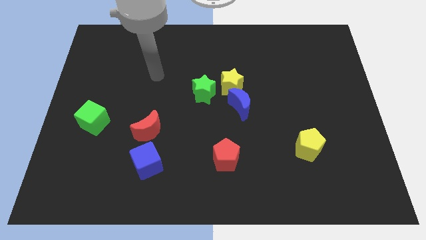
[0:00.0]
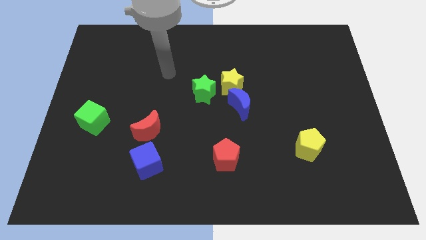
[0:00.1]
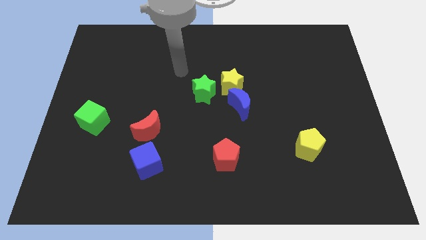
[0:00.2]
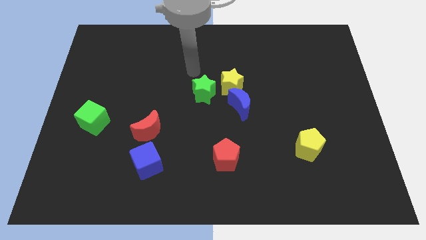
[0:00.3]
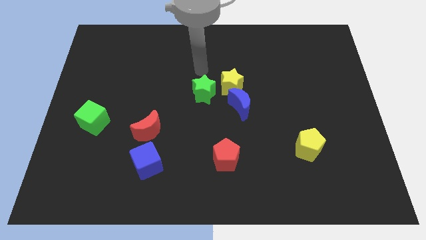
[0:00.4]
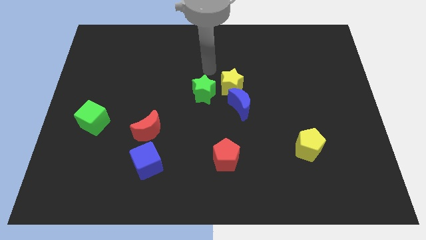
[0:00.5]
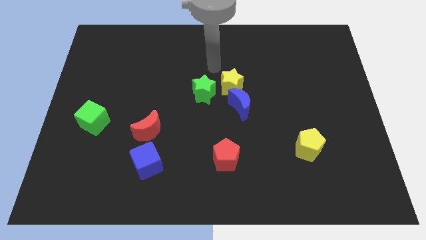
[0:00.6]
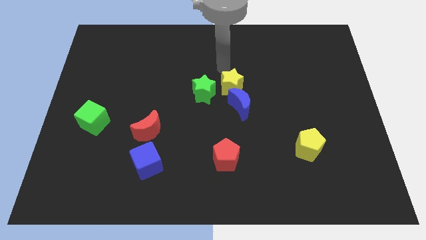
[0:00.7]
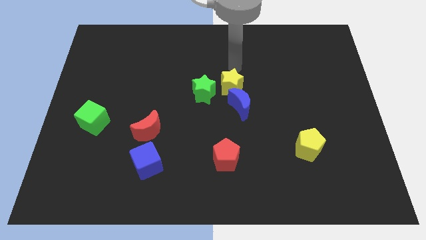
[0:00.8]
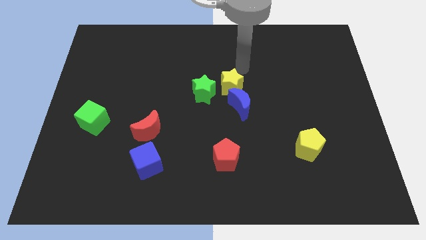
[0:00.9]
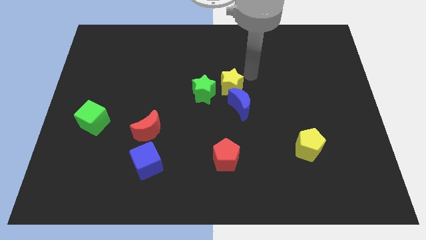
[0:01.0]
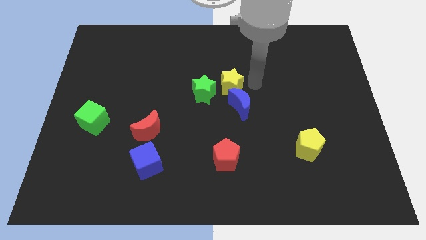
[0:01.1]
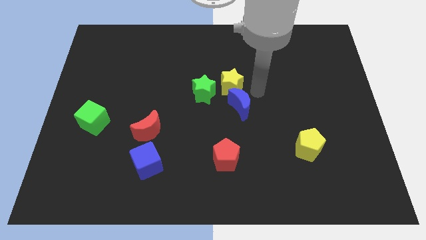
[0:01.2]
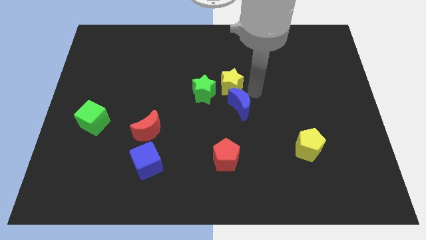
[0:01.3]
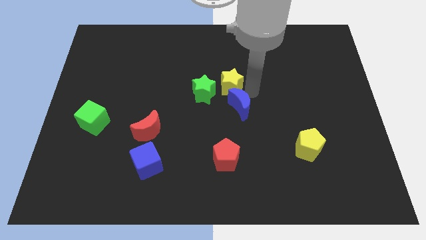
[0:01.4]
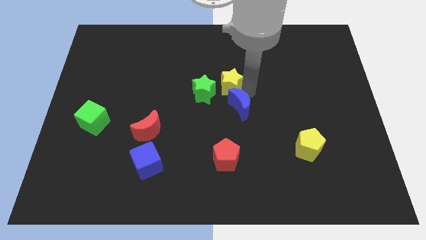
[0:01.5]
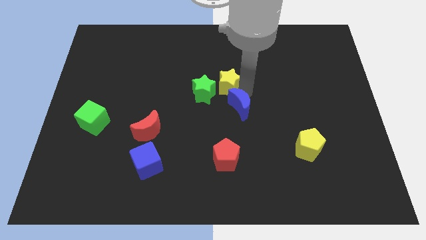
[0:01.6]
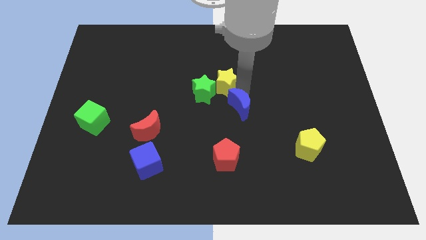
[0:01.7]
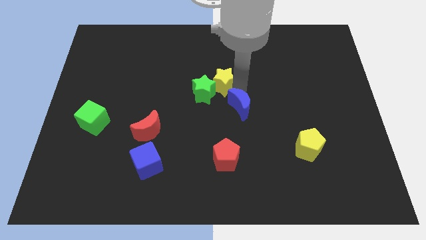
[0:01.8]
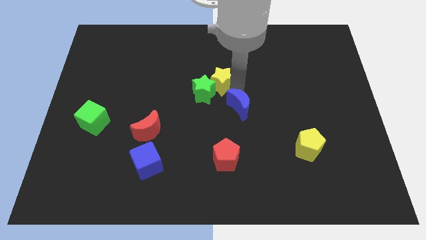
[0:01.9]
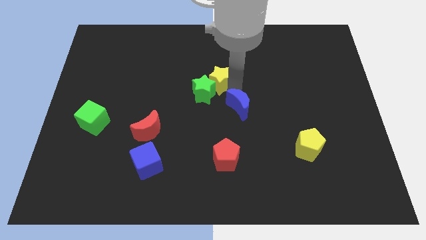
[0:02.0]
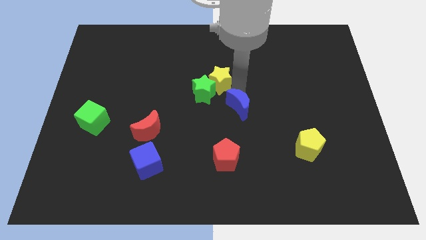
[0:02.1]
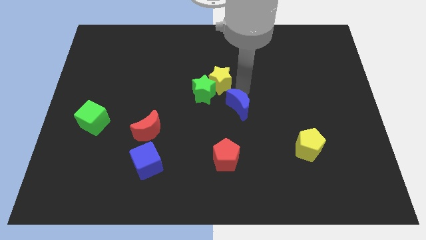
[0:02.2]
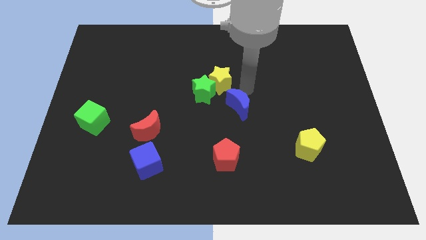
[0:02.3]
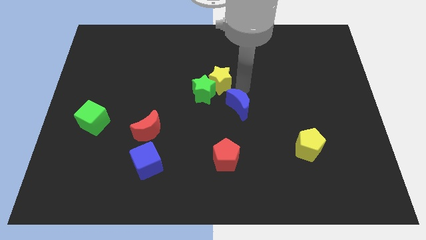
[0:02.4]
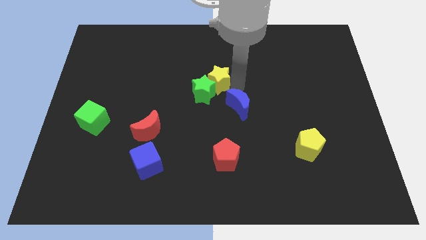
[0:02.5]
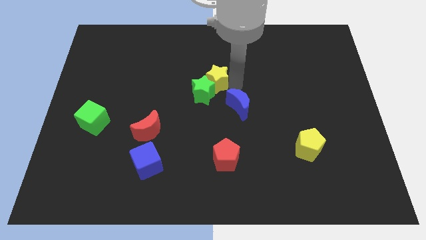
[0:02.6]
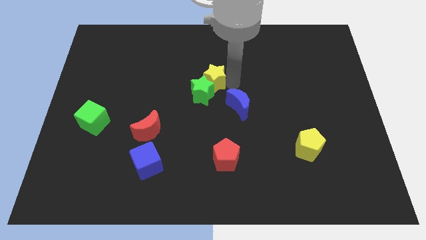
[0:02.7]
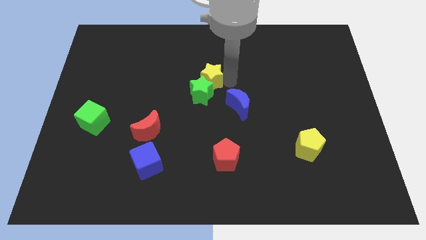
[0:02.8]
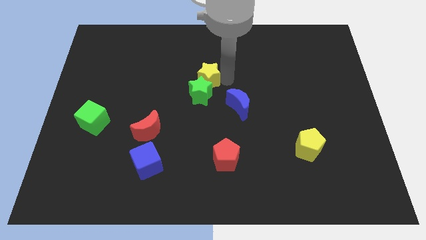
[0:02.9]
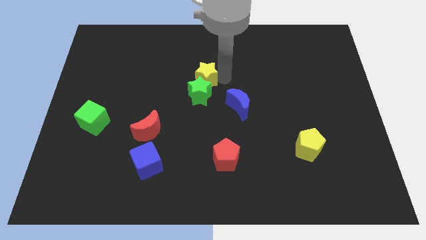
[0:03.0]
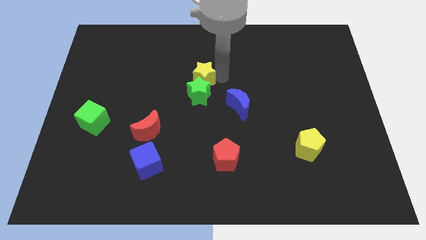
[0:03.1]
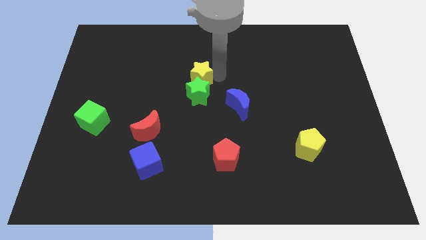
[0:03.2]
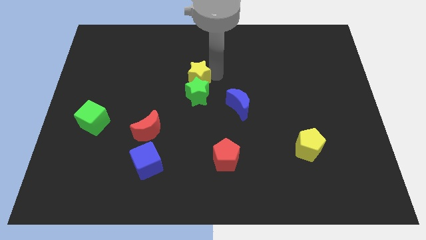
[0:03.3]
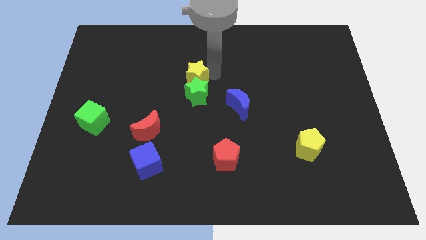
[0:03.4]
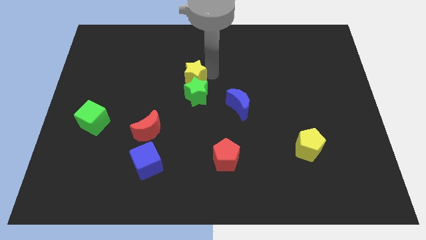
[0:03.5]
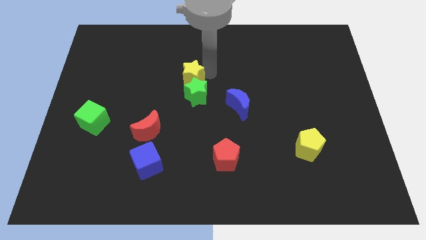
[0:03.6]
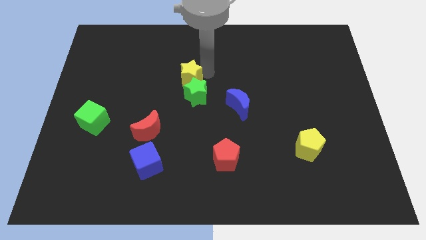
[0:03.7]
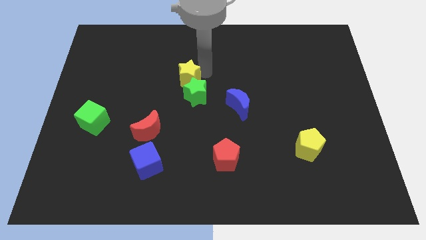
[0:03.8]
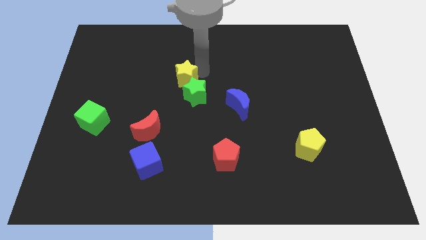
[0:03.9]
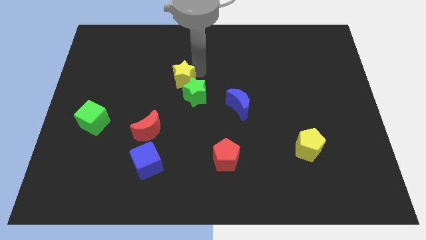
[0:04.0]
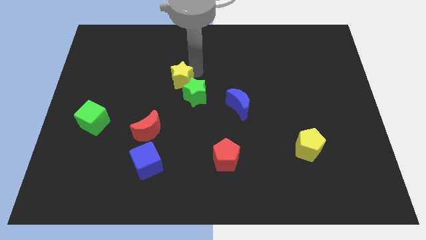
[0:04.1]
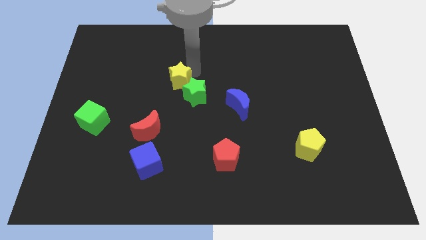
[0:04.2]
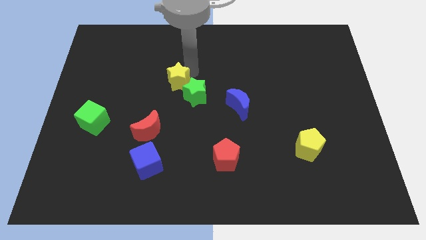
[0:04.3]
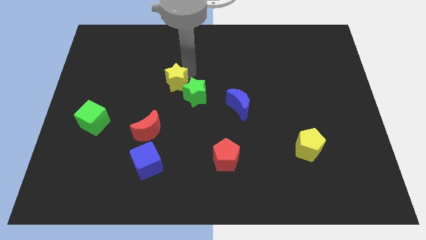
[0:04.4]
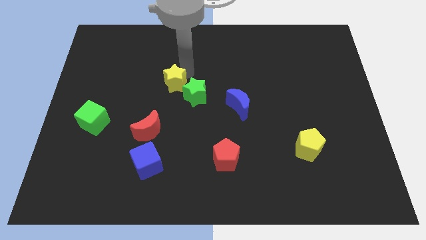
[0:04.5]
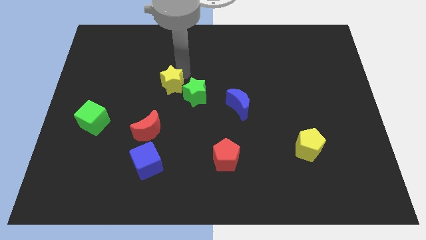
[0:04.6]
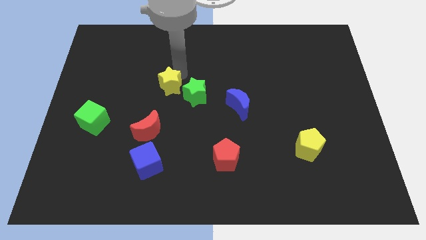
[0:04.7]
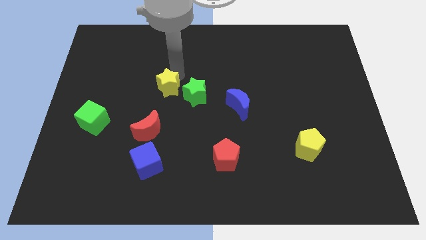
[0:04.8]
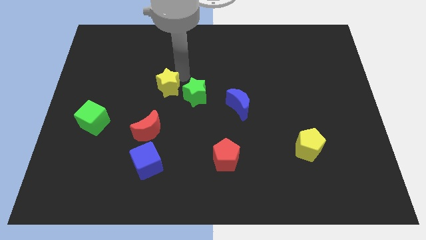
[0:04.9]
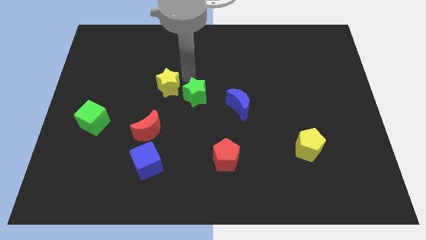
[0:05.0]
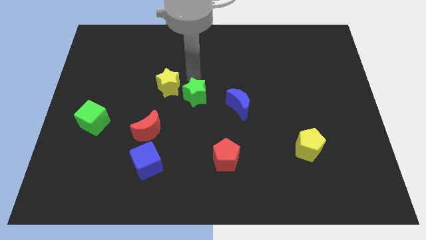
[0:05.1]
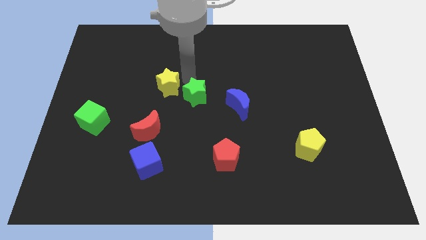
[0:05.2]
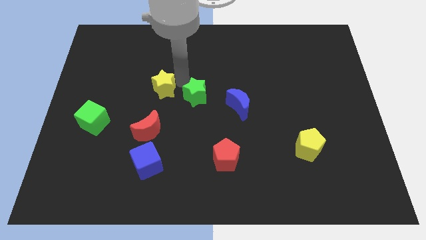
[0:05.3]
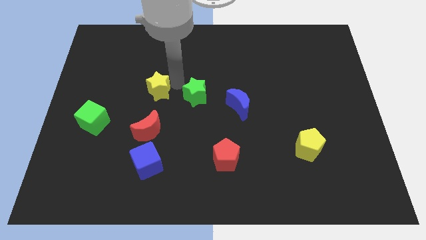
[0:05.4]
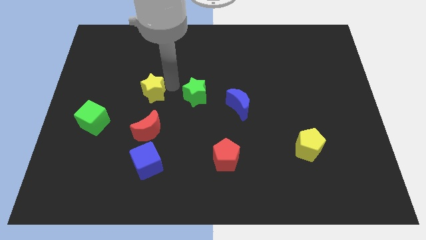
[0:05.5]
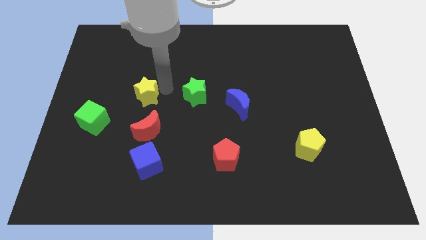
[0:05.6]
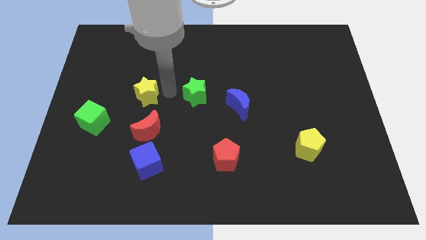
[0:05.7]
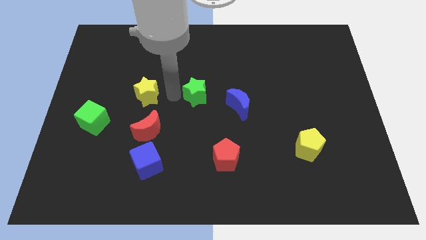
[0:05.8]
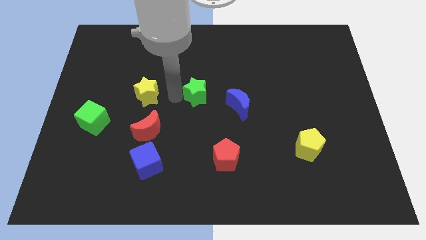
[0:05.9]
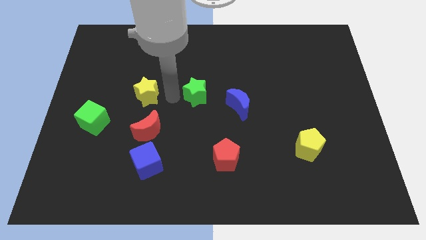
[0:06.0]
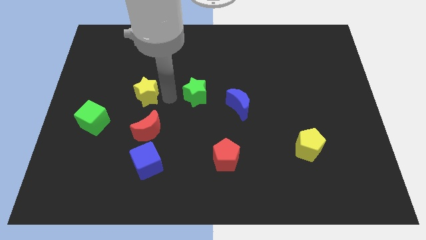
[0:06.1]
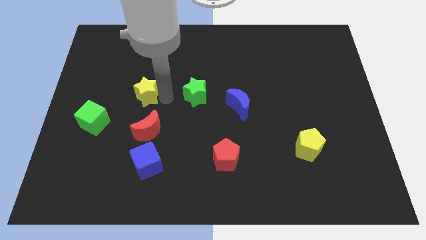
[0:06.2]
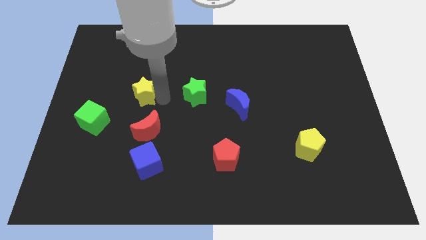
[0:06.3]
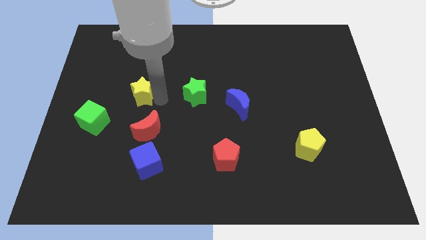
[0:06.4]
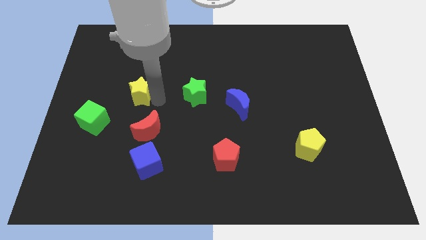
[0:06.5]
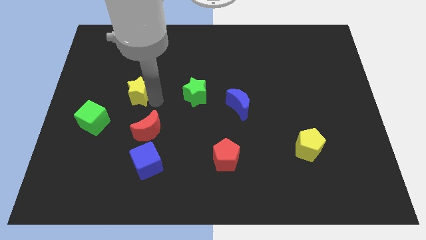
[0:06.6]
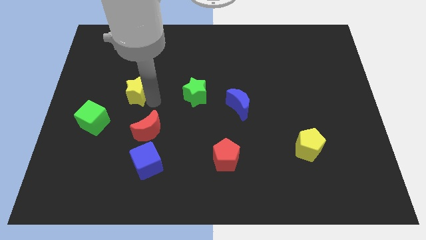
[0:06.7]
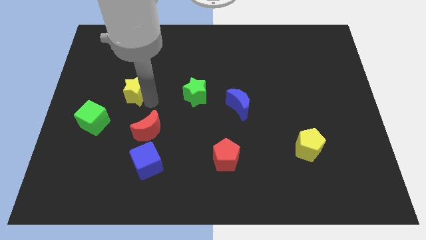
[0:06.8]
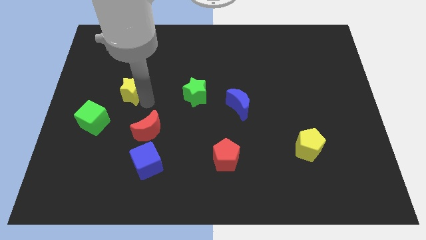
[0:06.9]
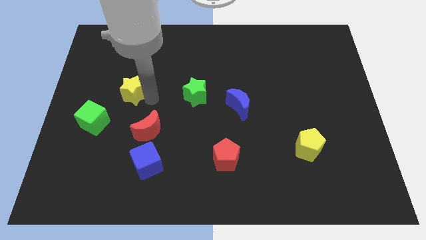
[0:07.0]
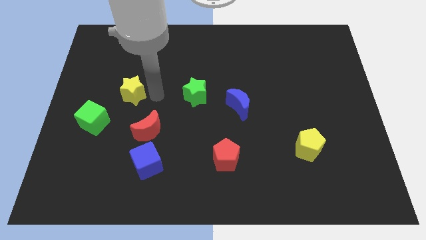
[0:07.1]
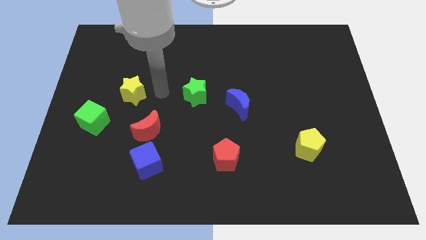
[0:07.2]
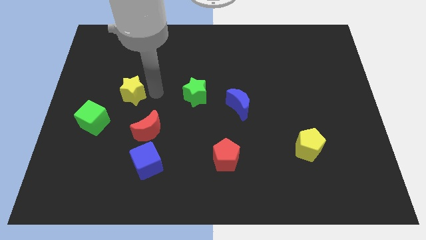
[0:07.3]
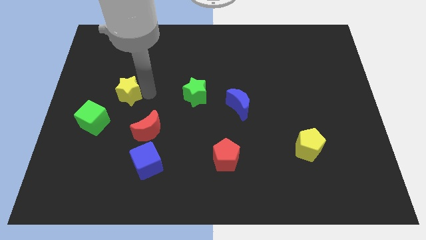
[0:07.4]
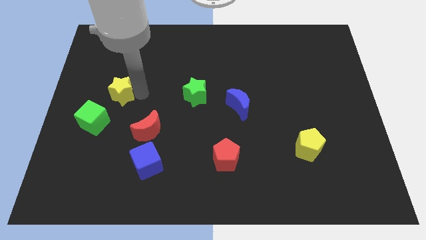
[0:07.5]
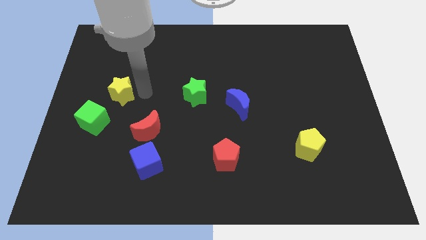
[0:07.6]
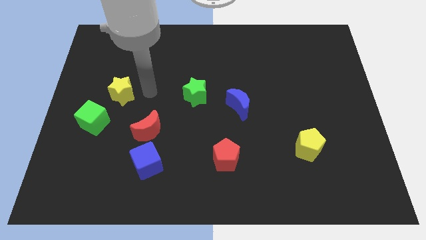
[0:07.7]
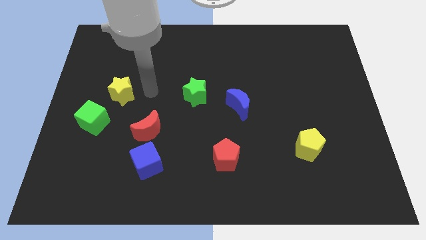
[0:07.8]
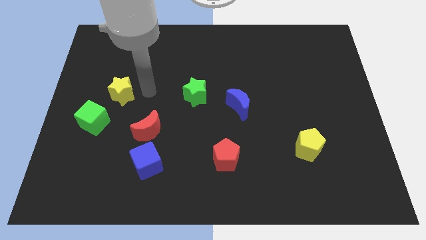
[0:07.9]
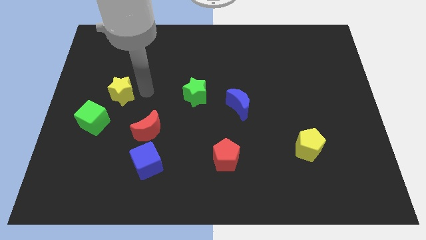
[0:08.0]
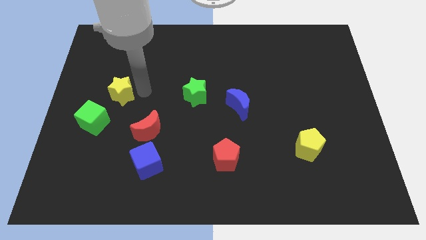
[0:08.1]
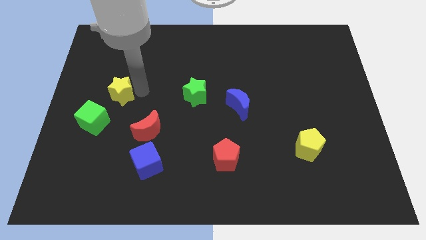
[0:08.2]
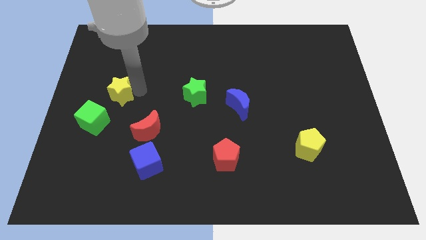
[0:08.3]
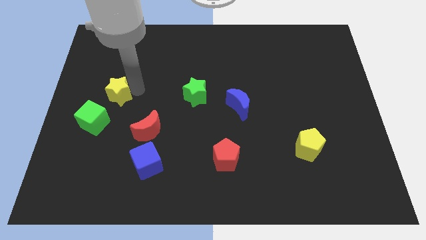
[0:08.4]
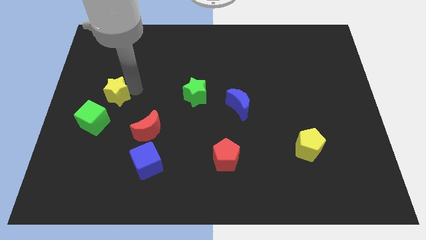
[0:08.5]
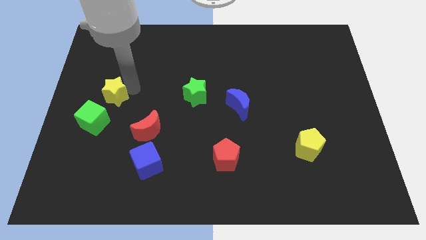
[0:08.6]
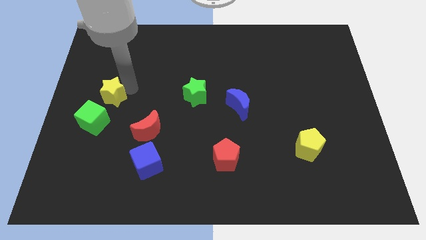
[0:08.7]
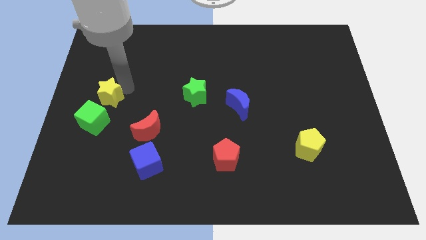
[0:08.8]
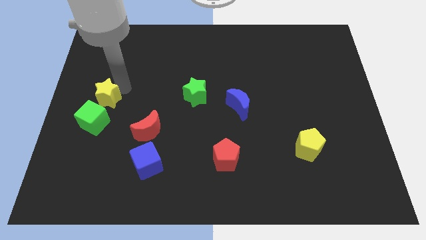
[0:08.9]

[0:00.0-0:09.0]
move the yellow star to the left side
